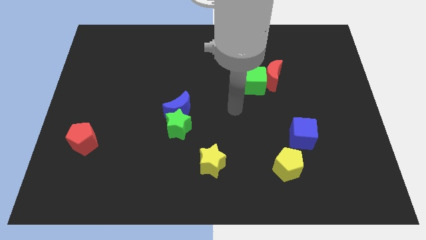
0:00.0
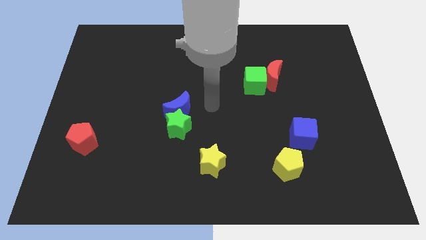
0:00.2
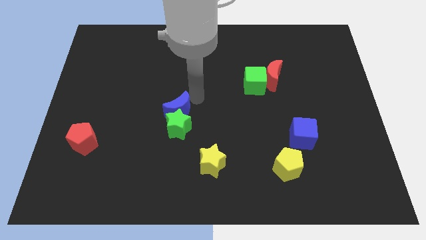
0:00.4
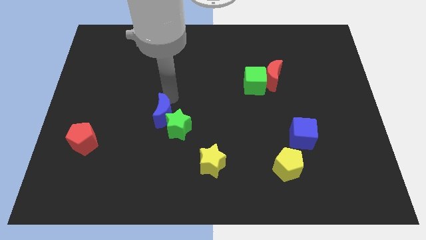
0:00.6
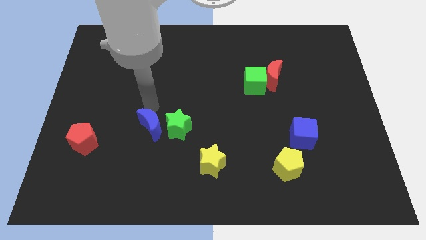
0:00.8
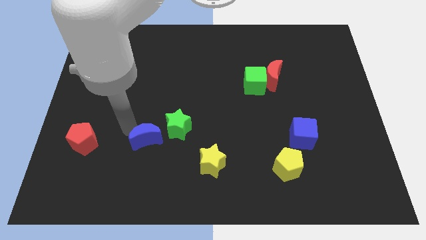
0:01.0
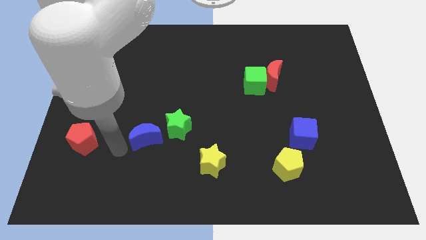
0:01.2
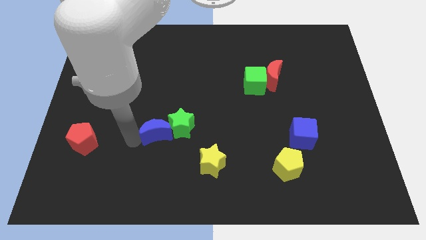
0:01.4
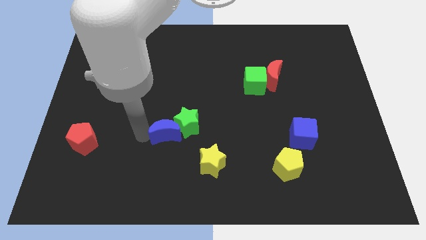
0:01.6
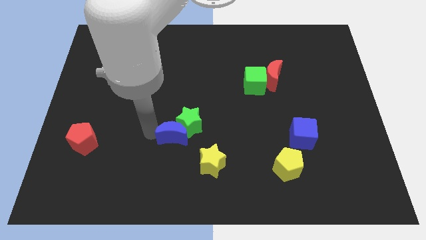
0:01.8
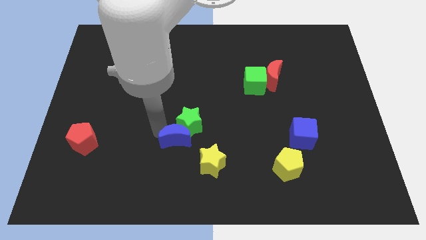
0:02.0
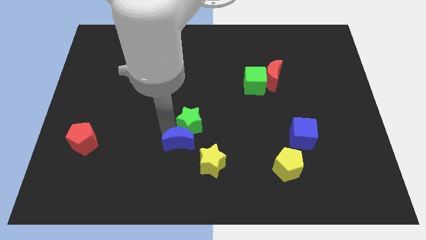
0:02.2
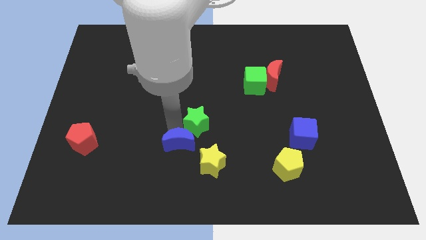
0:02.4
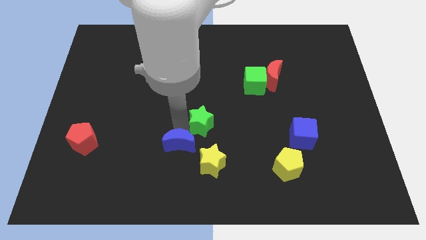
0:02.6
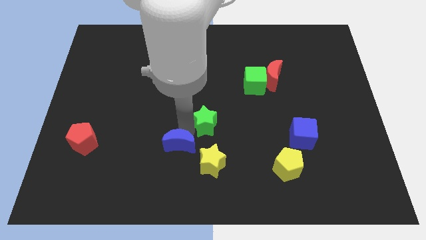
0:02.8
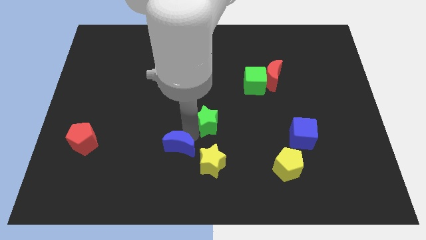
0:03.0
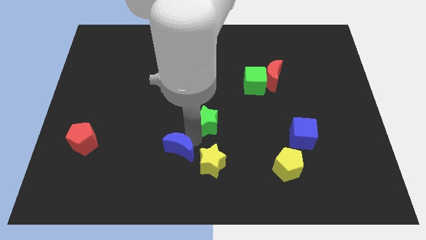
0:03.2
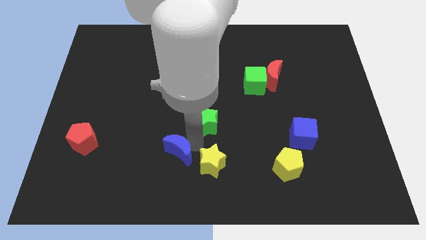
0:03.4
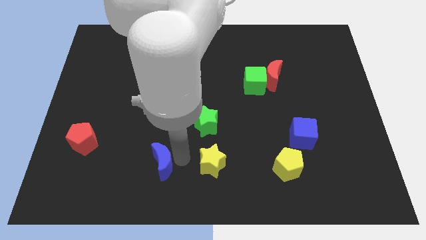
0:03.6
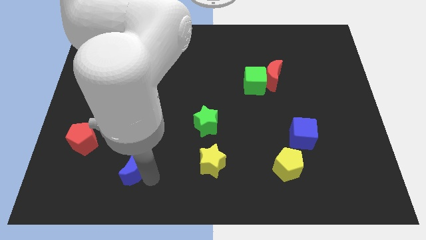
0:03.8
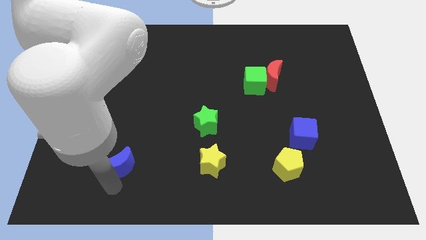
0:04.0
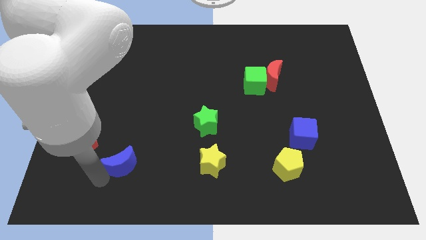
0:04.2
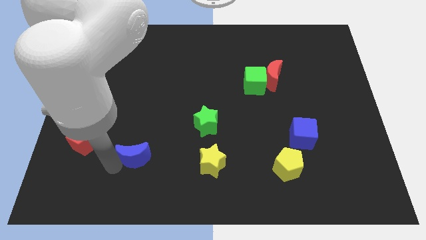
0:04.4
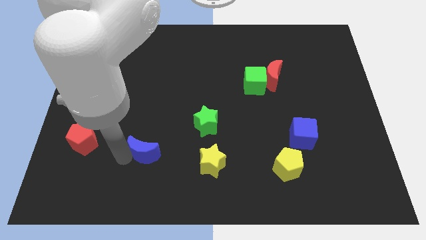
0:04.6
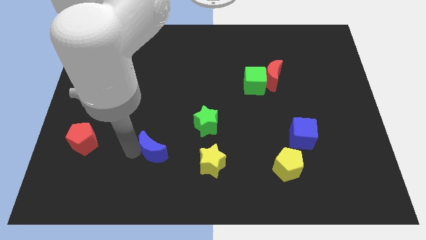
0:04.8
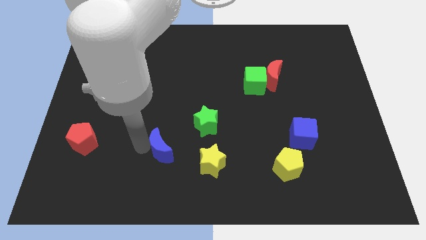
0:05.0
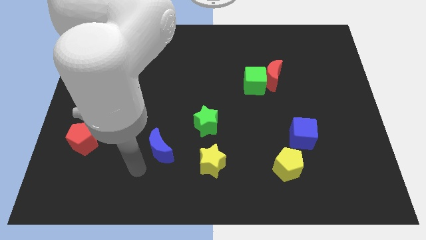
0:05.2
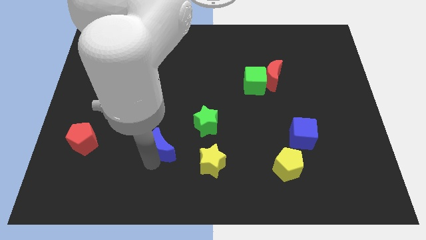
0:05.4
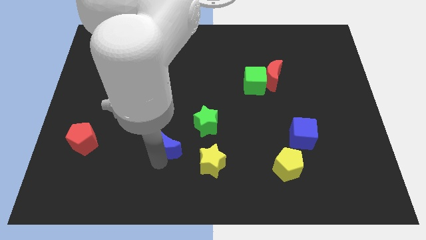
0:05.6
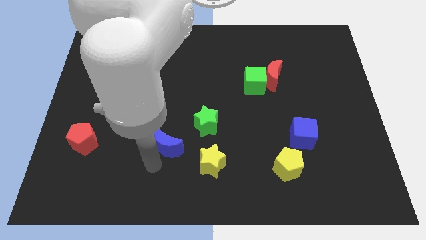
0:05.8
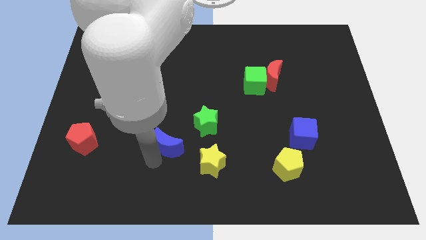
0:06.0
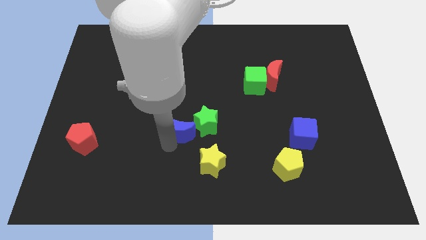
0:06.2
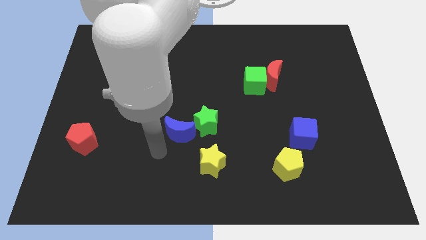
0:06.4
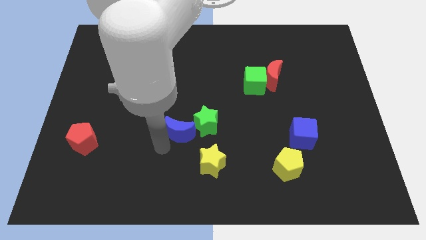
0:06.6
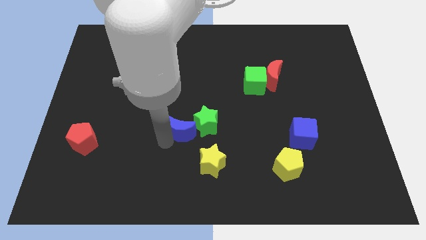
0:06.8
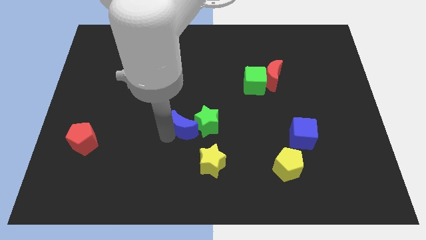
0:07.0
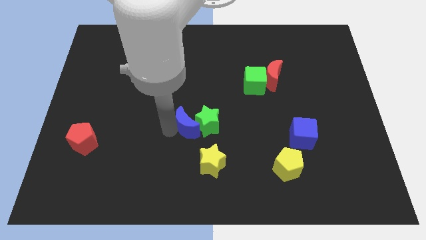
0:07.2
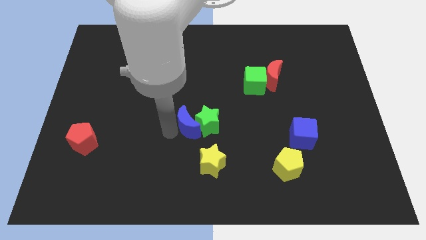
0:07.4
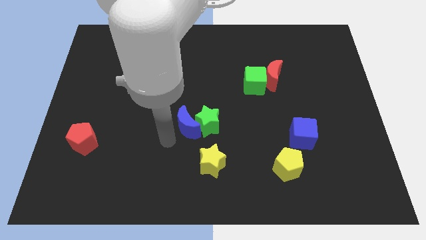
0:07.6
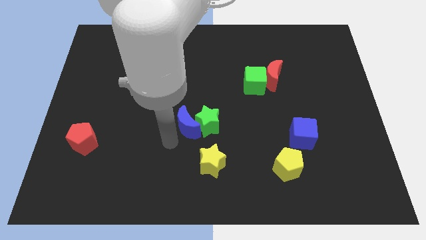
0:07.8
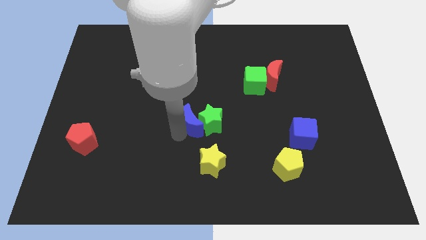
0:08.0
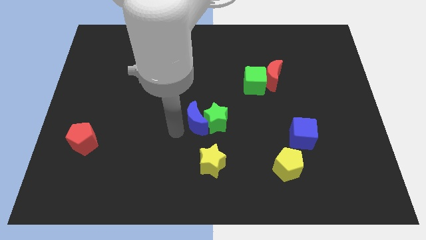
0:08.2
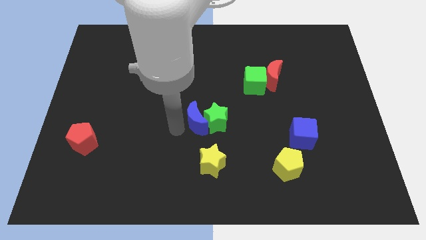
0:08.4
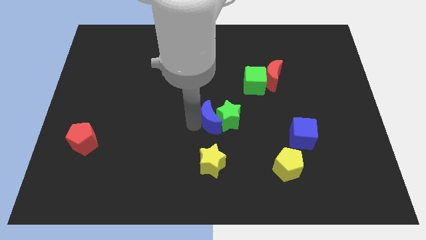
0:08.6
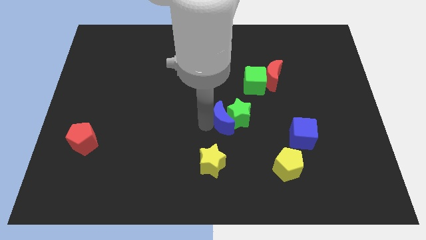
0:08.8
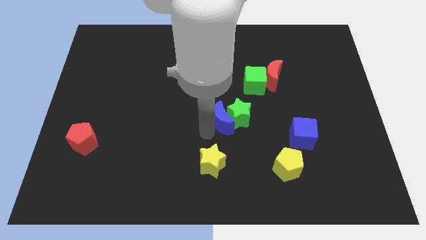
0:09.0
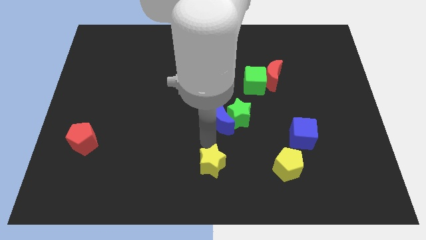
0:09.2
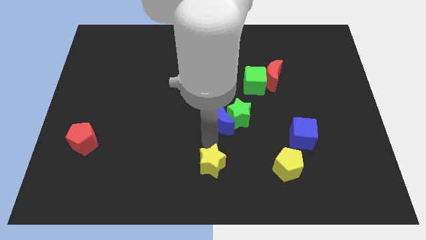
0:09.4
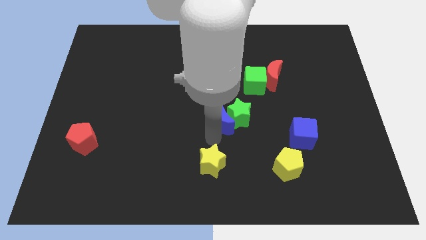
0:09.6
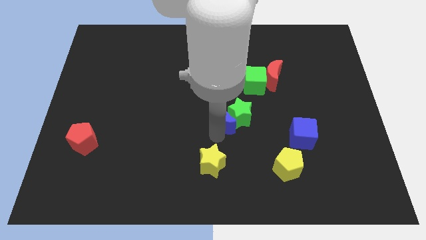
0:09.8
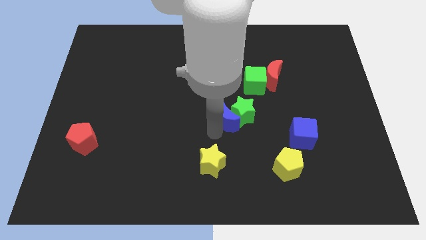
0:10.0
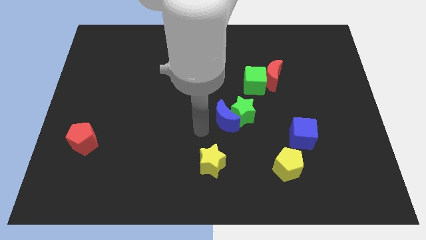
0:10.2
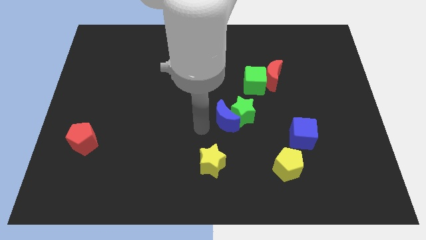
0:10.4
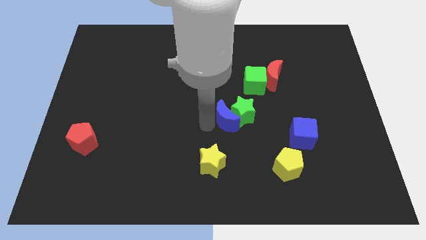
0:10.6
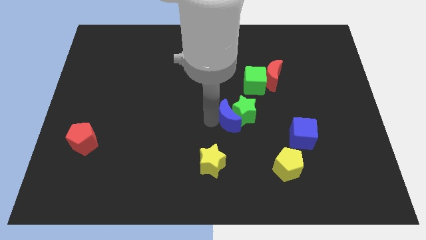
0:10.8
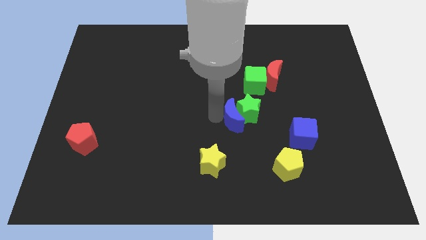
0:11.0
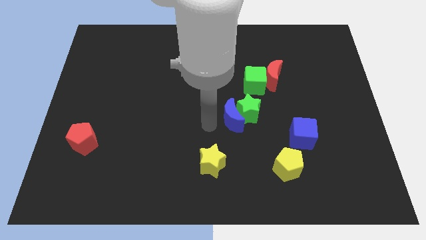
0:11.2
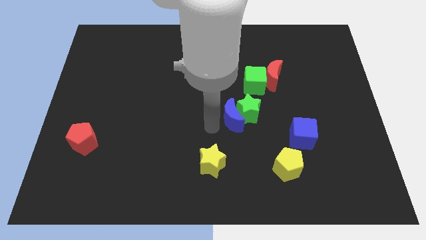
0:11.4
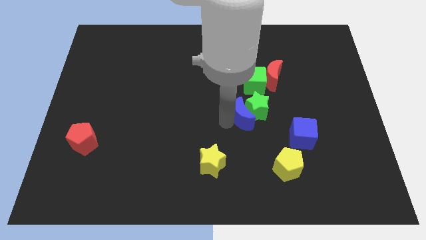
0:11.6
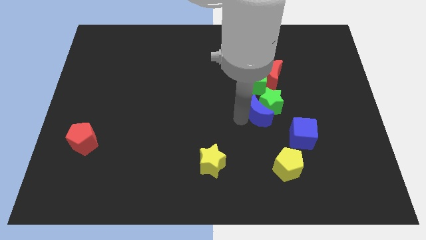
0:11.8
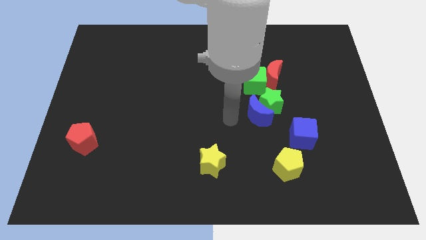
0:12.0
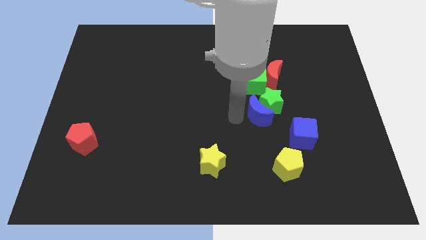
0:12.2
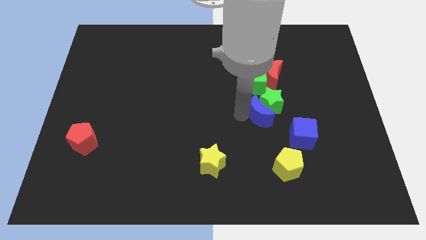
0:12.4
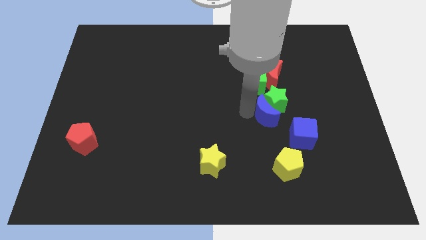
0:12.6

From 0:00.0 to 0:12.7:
push the blue moon to the right

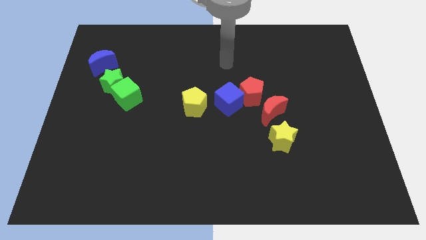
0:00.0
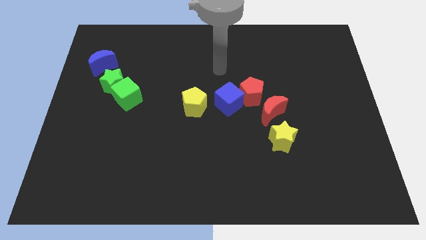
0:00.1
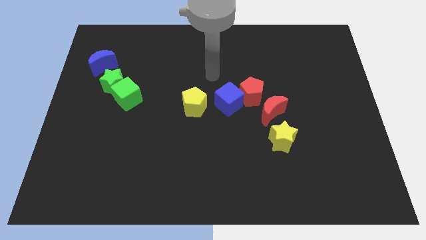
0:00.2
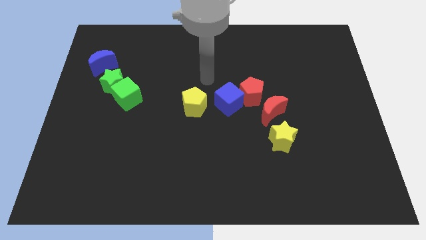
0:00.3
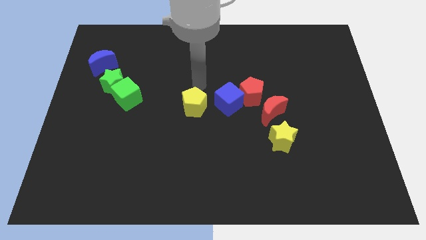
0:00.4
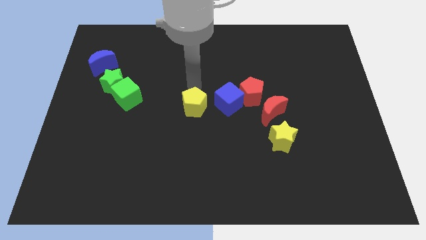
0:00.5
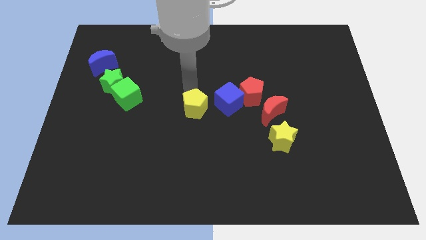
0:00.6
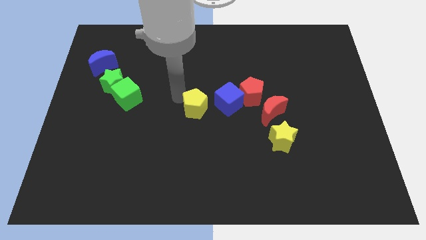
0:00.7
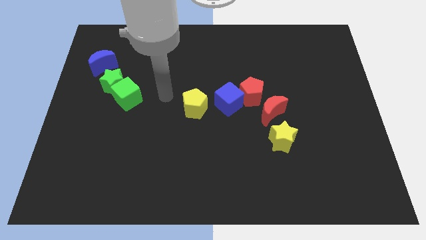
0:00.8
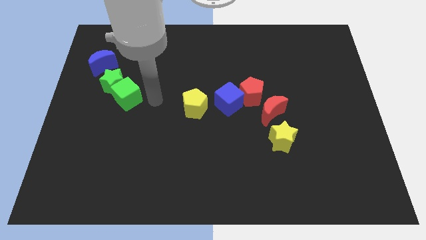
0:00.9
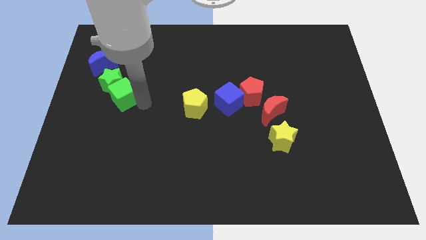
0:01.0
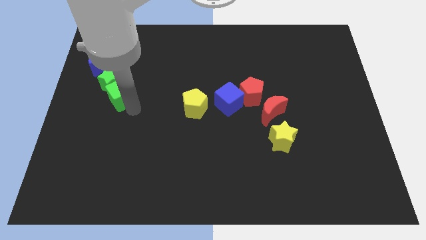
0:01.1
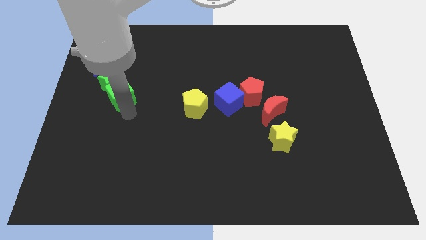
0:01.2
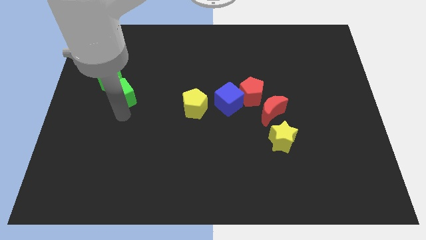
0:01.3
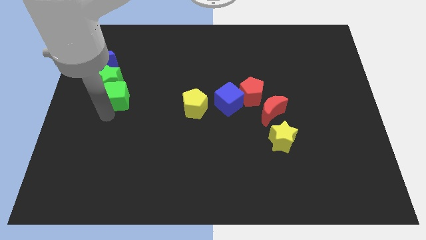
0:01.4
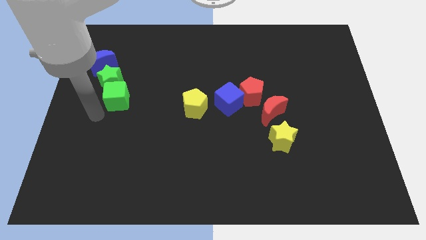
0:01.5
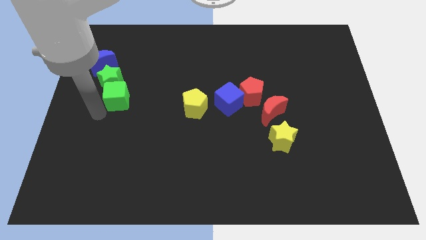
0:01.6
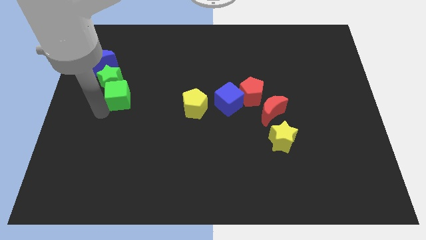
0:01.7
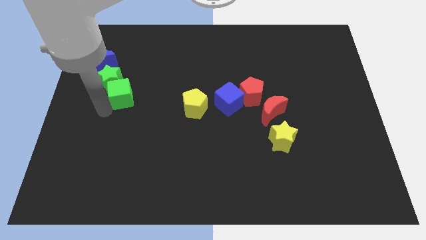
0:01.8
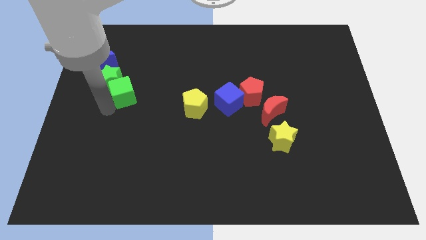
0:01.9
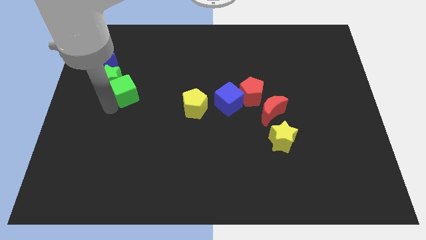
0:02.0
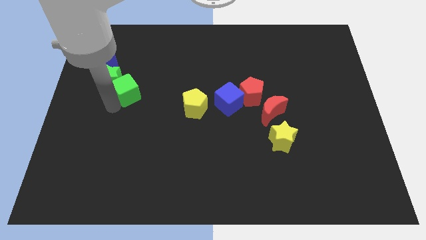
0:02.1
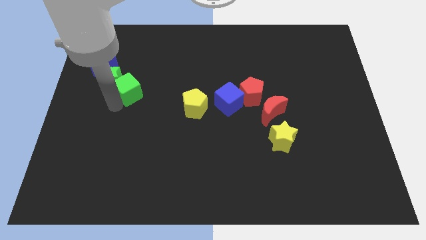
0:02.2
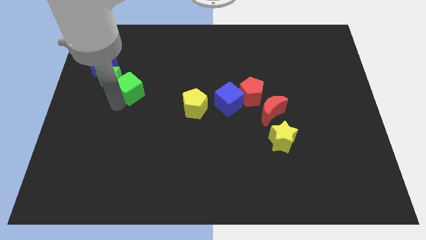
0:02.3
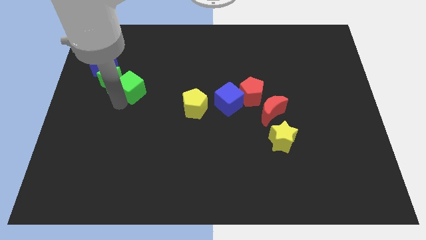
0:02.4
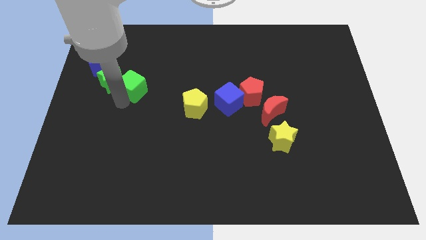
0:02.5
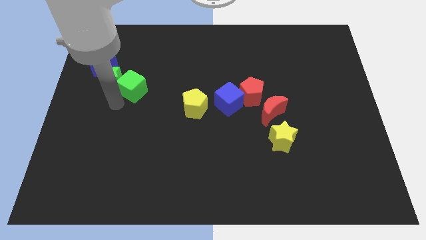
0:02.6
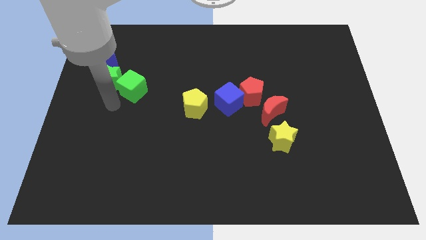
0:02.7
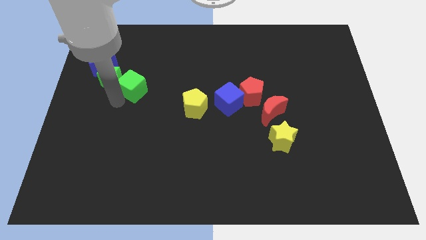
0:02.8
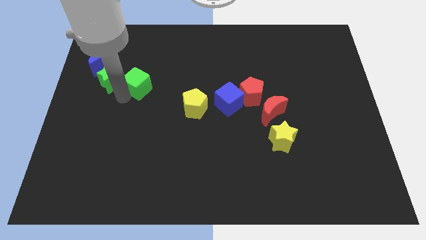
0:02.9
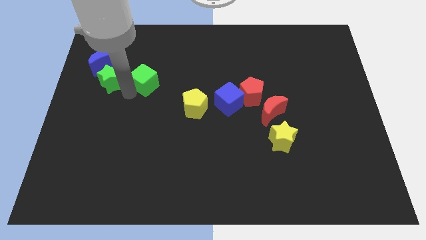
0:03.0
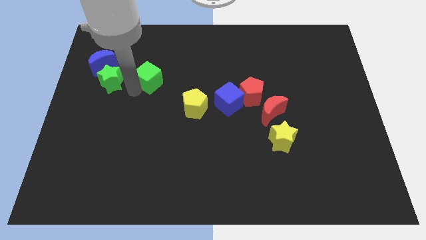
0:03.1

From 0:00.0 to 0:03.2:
push the green cube slightly up and right diagonally
